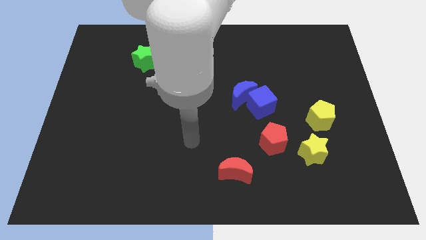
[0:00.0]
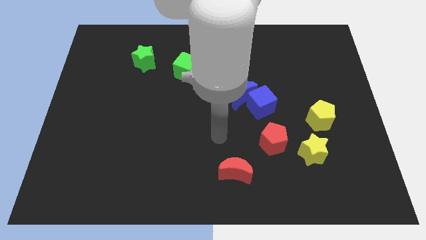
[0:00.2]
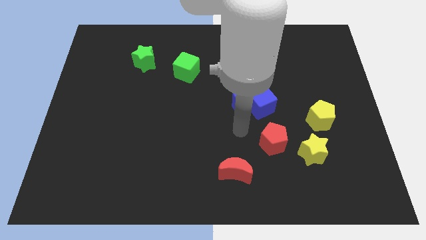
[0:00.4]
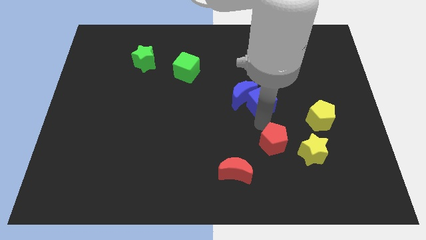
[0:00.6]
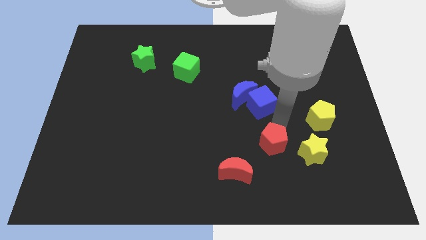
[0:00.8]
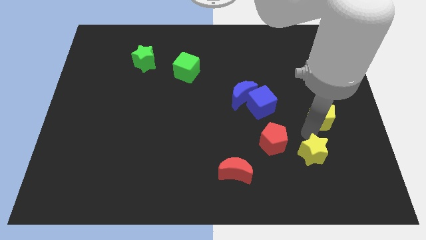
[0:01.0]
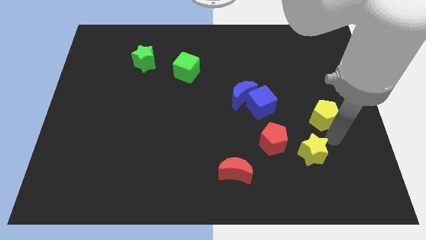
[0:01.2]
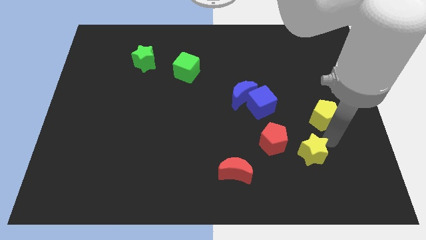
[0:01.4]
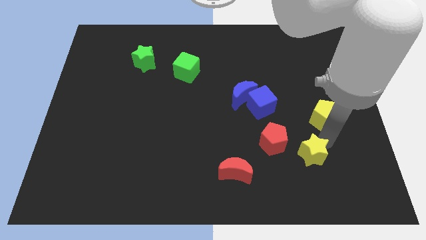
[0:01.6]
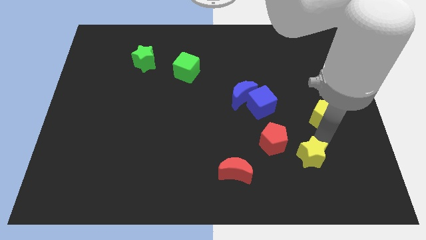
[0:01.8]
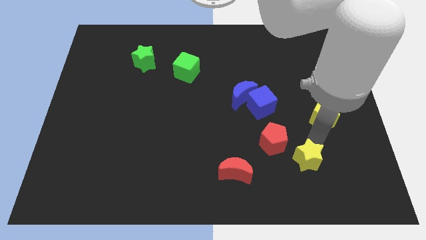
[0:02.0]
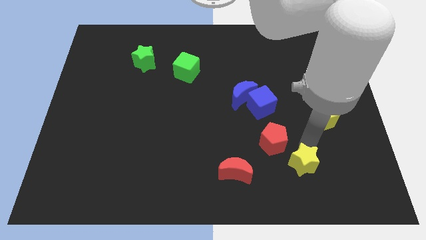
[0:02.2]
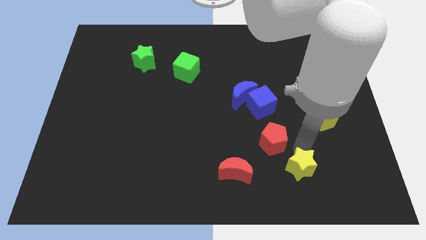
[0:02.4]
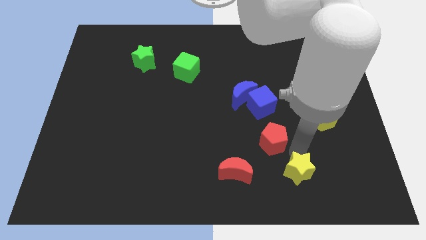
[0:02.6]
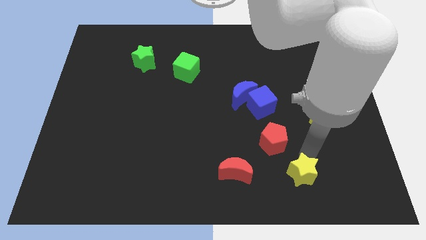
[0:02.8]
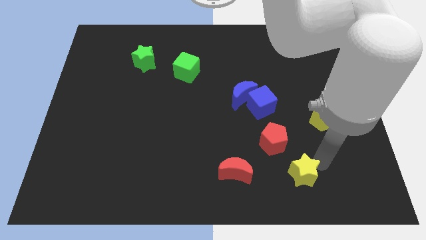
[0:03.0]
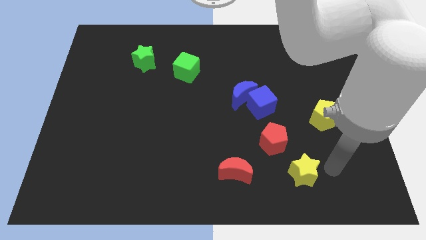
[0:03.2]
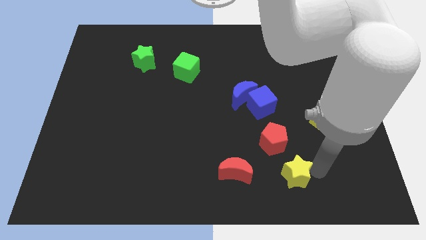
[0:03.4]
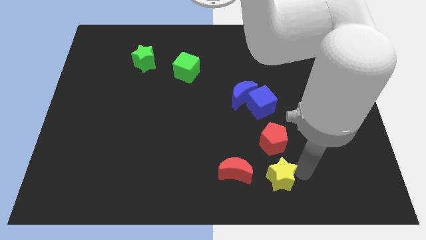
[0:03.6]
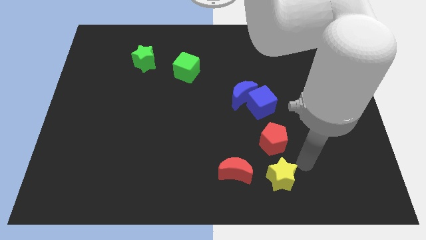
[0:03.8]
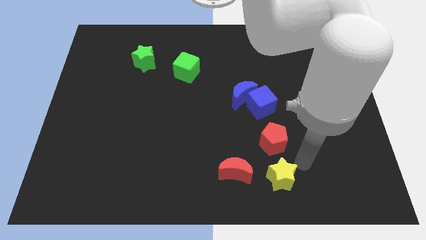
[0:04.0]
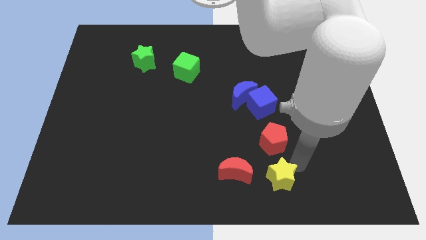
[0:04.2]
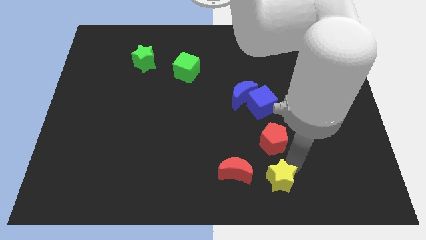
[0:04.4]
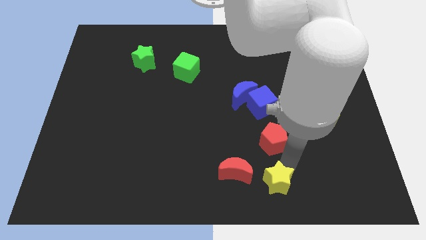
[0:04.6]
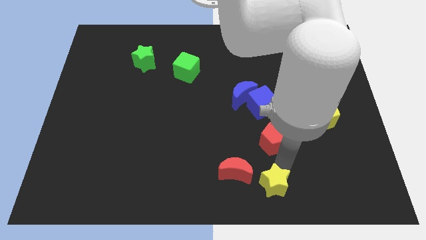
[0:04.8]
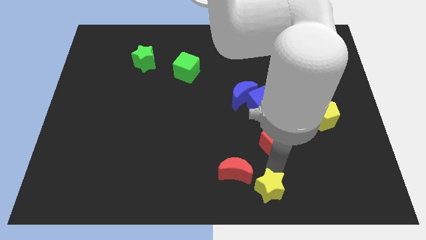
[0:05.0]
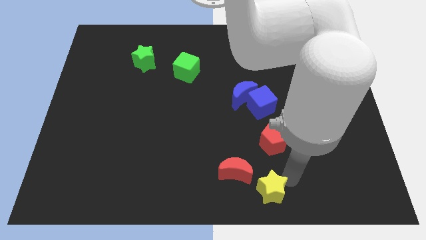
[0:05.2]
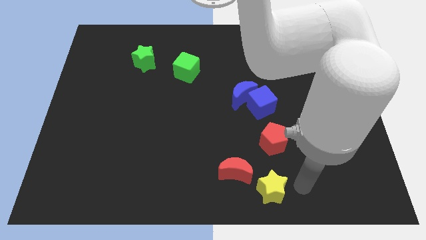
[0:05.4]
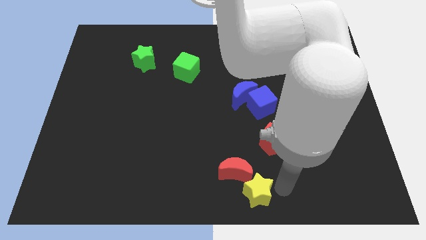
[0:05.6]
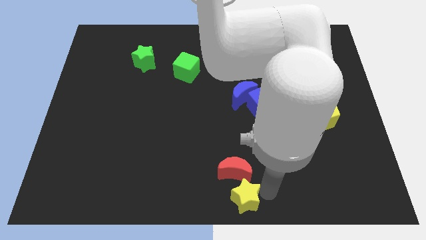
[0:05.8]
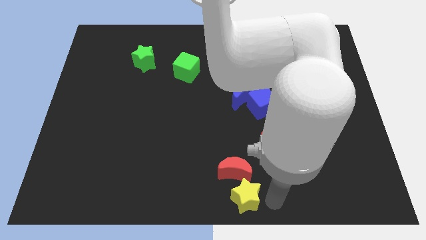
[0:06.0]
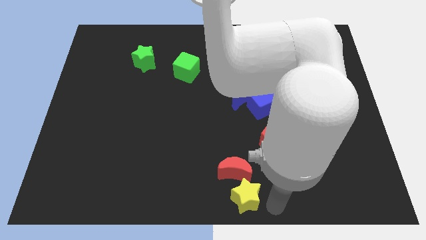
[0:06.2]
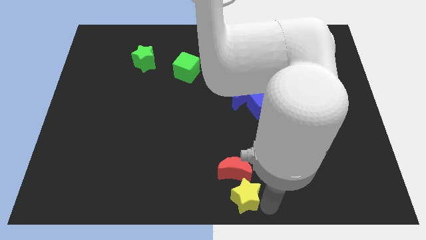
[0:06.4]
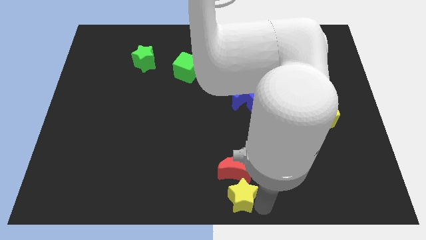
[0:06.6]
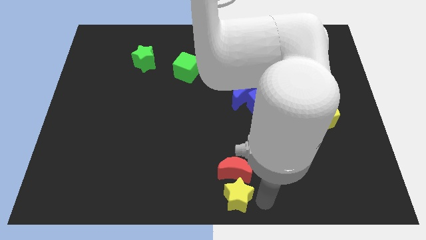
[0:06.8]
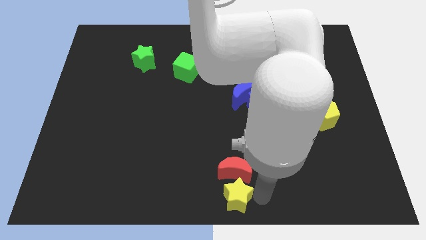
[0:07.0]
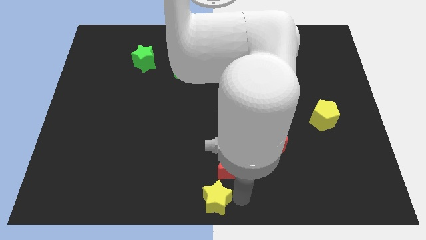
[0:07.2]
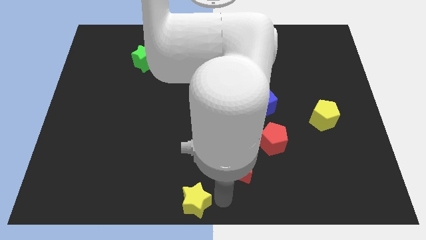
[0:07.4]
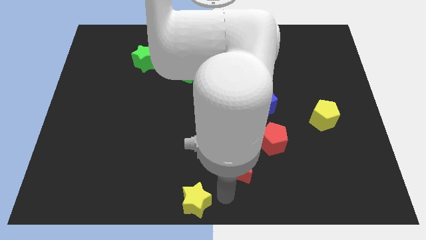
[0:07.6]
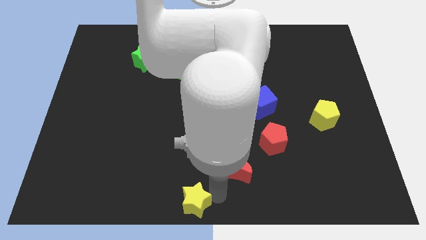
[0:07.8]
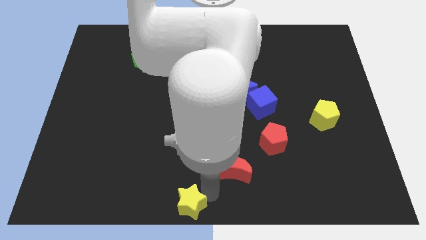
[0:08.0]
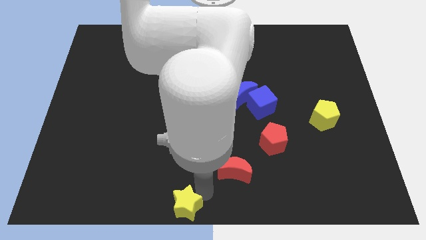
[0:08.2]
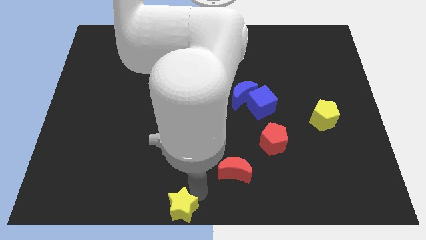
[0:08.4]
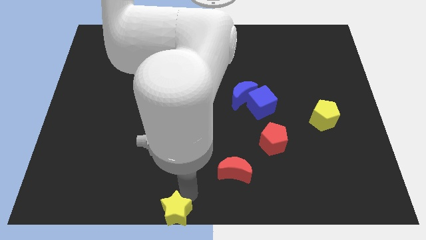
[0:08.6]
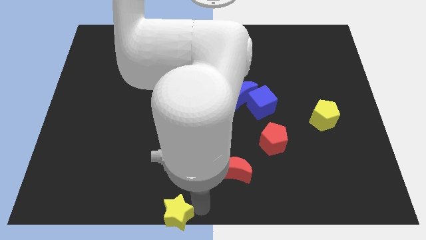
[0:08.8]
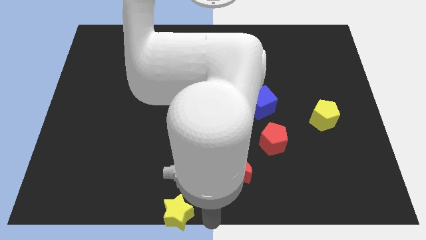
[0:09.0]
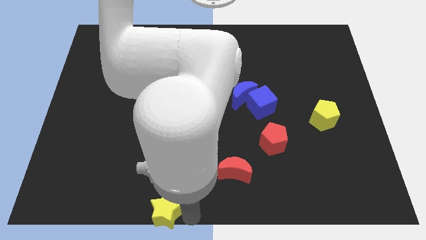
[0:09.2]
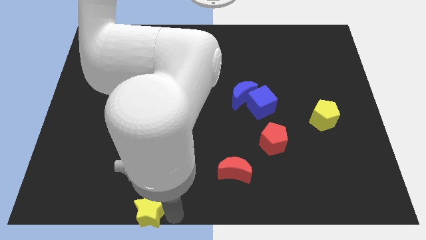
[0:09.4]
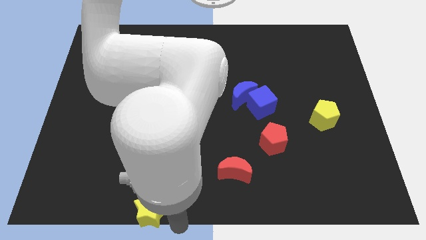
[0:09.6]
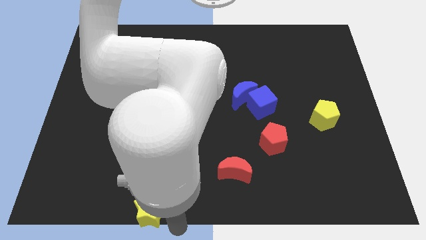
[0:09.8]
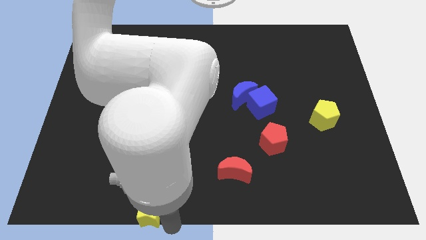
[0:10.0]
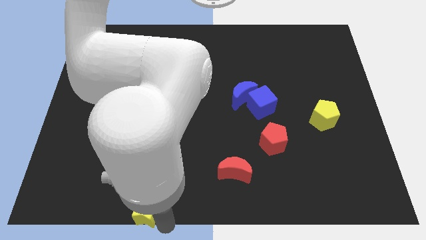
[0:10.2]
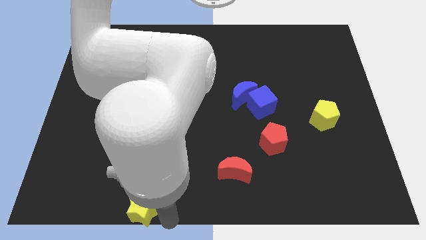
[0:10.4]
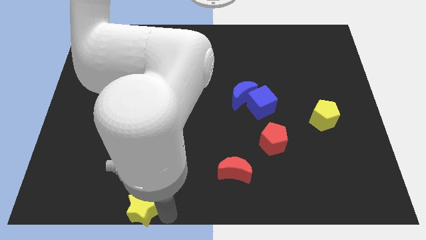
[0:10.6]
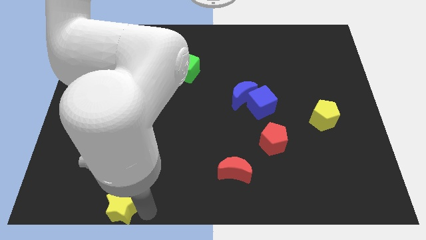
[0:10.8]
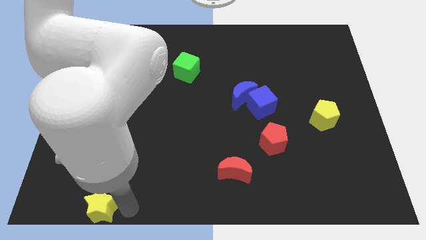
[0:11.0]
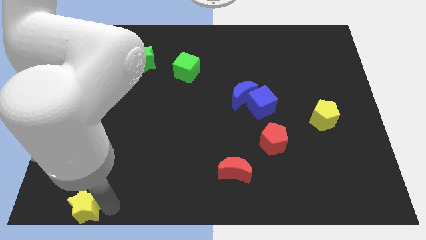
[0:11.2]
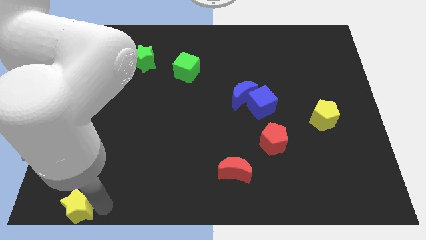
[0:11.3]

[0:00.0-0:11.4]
push the yellow star to the bottom left
